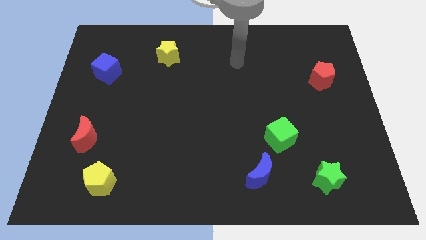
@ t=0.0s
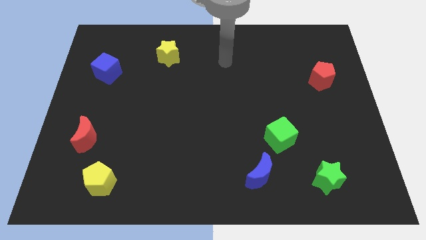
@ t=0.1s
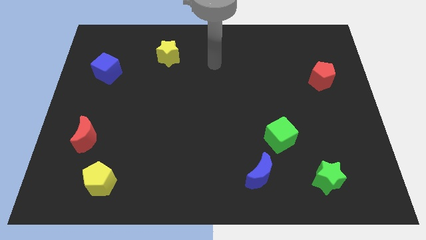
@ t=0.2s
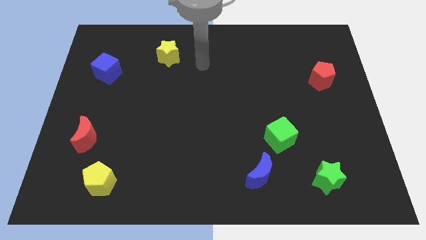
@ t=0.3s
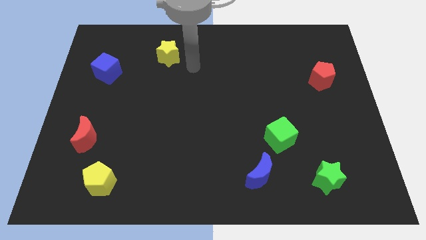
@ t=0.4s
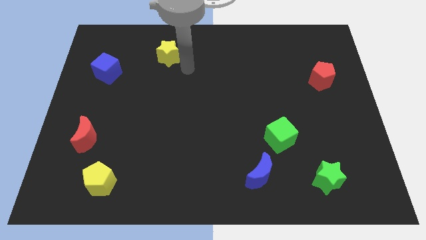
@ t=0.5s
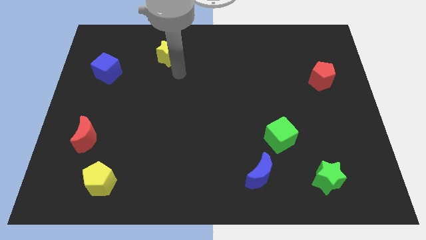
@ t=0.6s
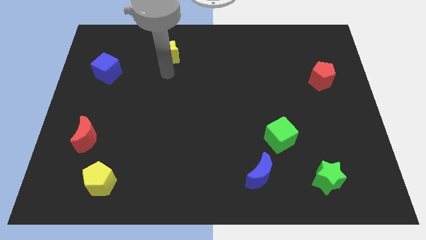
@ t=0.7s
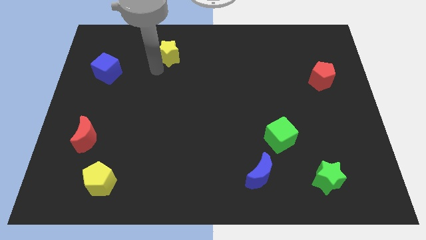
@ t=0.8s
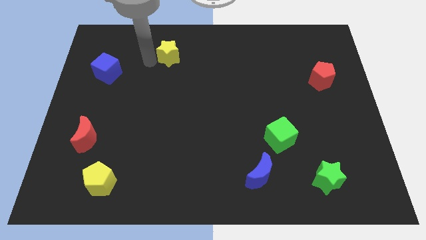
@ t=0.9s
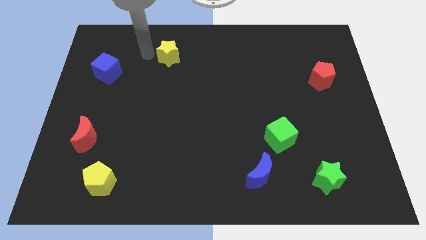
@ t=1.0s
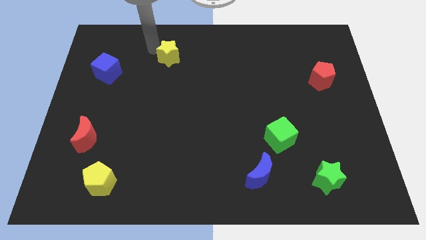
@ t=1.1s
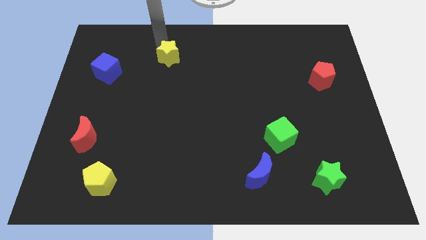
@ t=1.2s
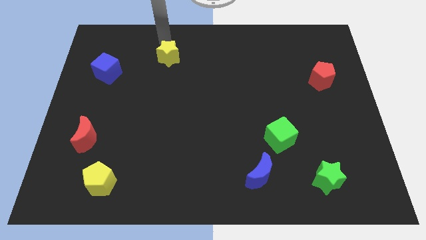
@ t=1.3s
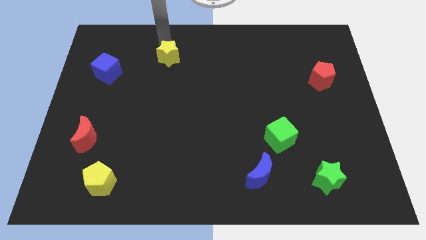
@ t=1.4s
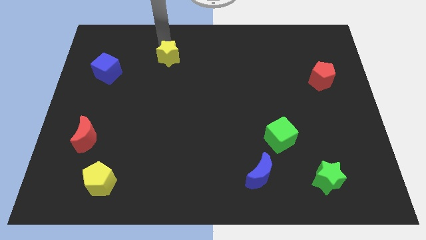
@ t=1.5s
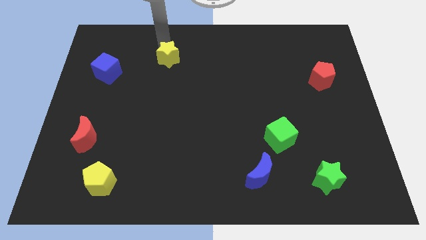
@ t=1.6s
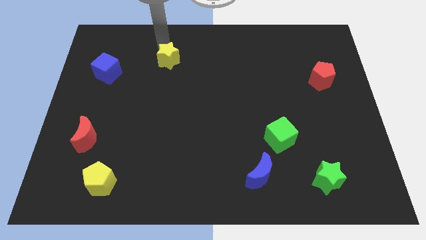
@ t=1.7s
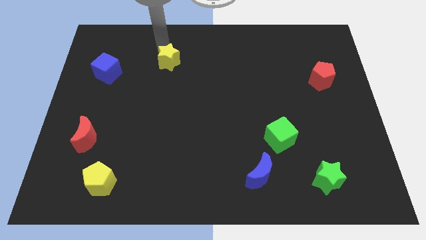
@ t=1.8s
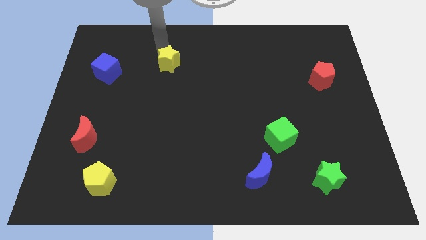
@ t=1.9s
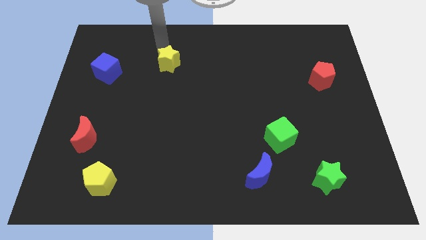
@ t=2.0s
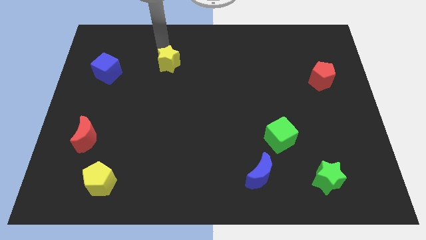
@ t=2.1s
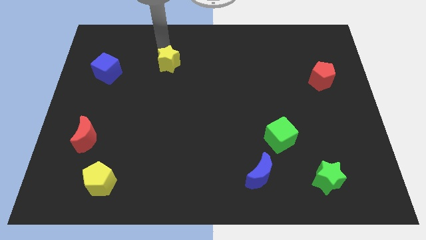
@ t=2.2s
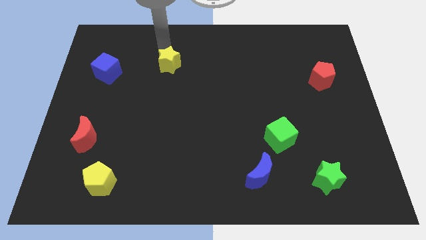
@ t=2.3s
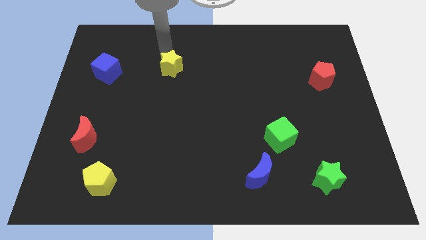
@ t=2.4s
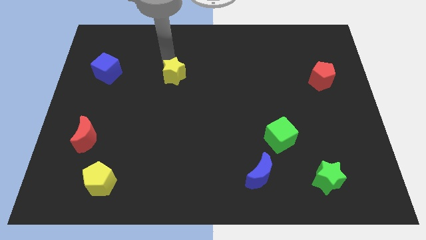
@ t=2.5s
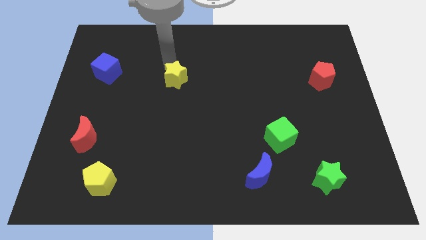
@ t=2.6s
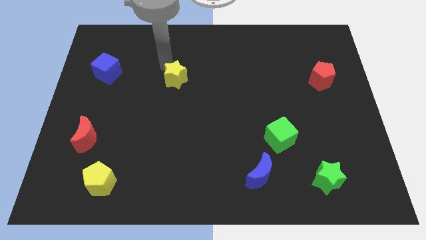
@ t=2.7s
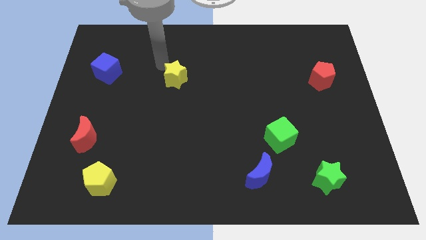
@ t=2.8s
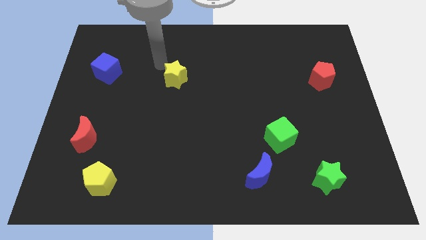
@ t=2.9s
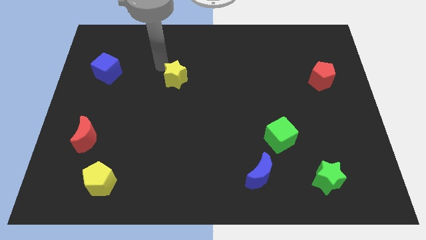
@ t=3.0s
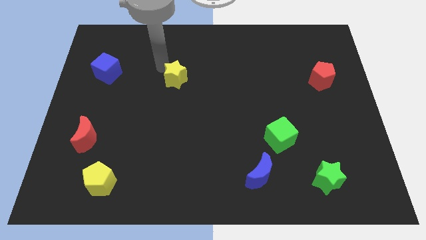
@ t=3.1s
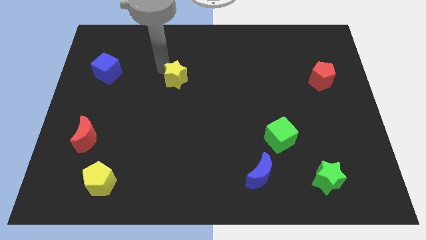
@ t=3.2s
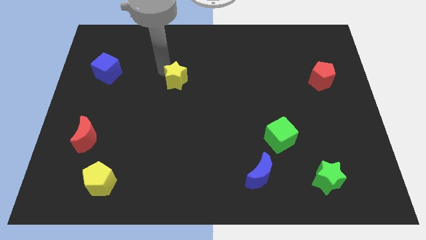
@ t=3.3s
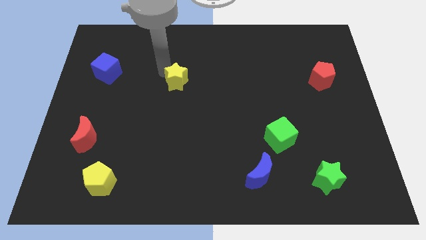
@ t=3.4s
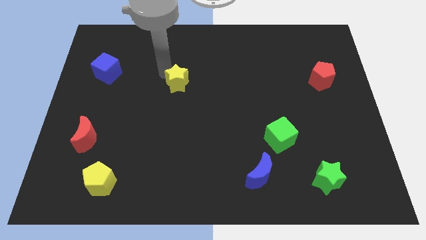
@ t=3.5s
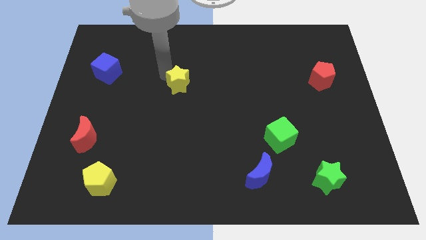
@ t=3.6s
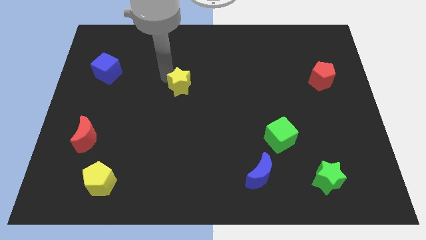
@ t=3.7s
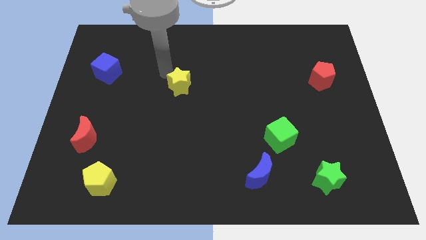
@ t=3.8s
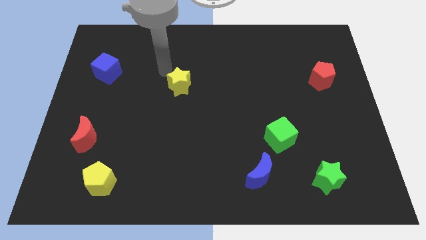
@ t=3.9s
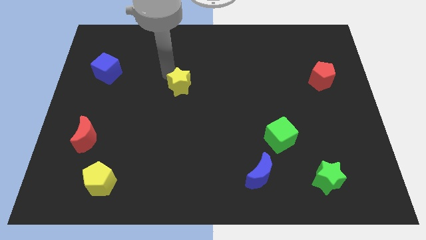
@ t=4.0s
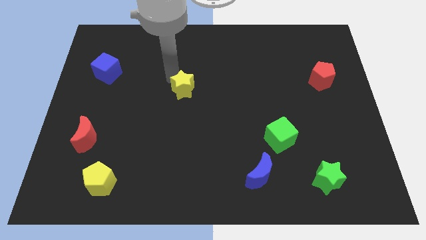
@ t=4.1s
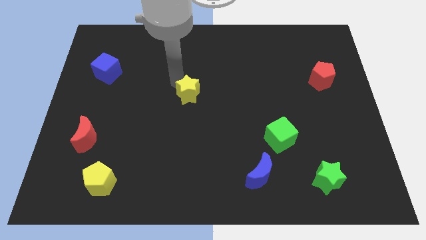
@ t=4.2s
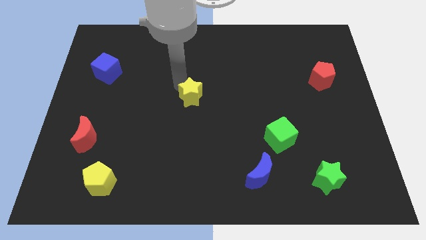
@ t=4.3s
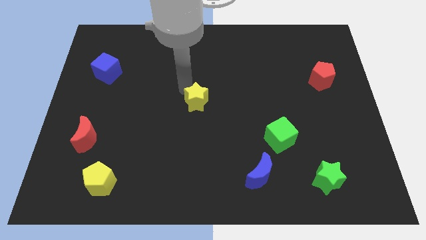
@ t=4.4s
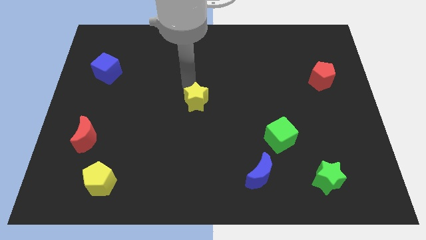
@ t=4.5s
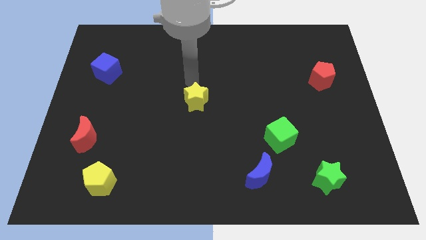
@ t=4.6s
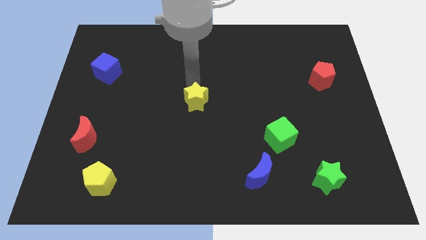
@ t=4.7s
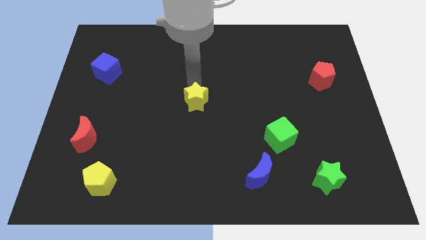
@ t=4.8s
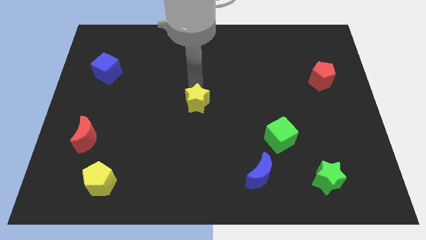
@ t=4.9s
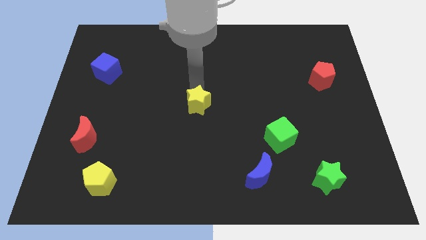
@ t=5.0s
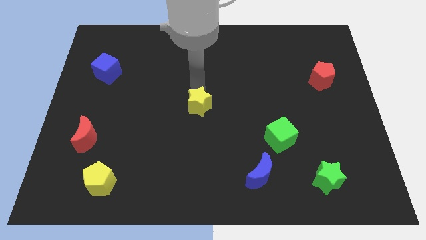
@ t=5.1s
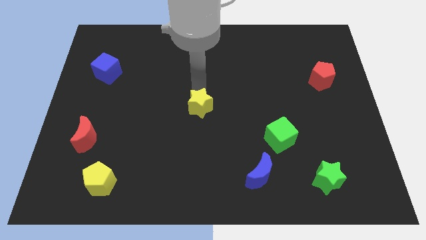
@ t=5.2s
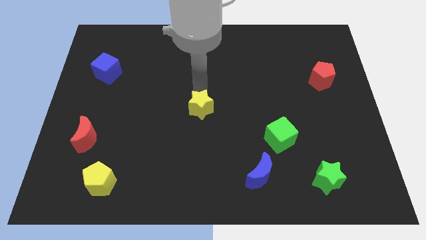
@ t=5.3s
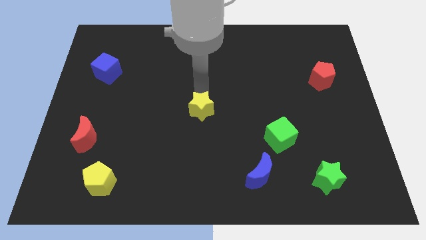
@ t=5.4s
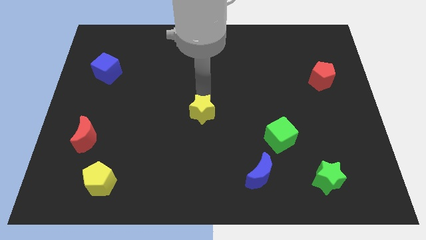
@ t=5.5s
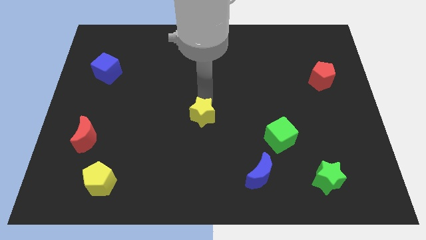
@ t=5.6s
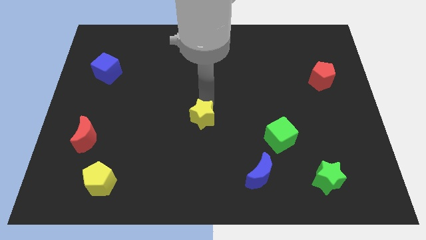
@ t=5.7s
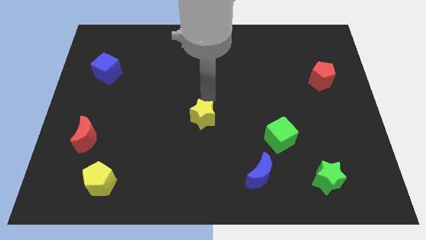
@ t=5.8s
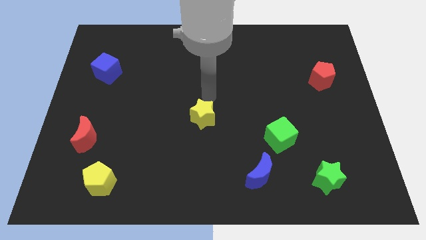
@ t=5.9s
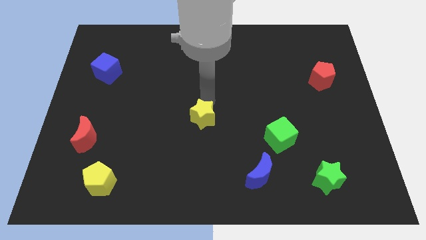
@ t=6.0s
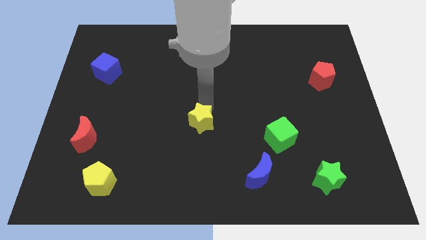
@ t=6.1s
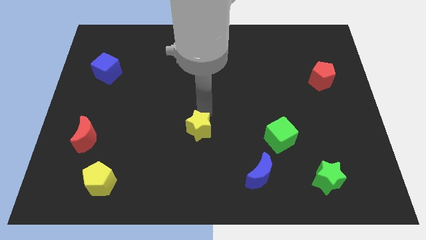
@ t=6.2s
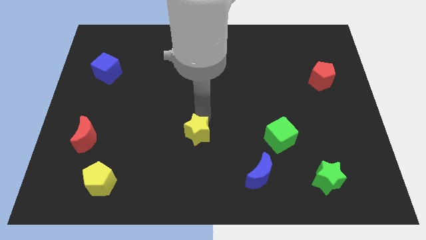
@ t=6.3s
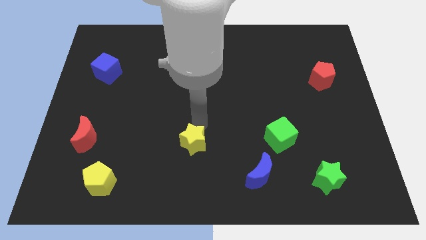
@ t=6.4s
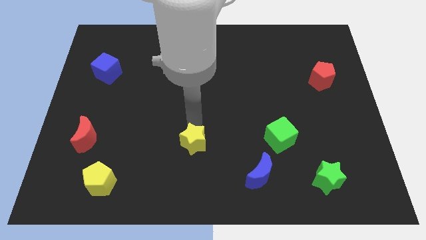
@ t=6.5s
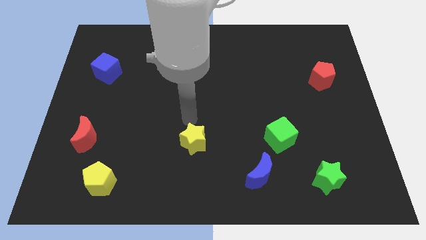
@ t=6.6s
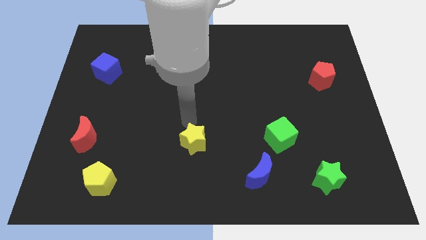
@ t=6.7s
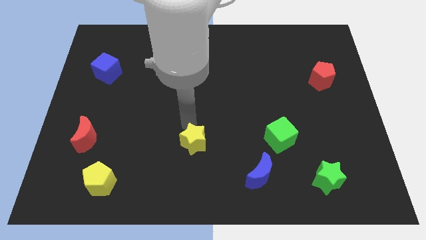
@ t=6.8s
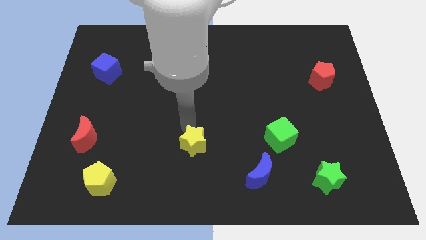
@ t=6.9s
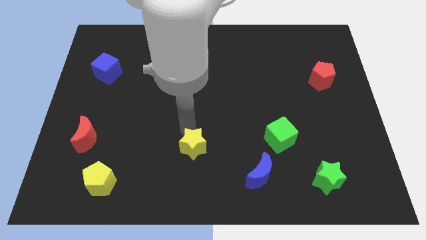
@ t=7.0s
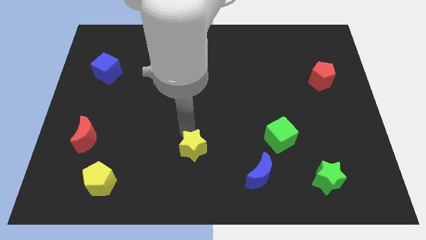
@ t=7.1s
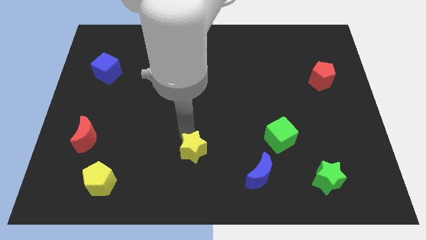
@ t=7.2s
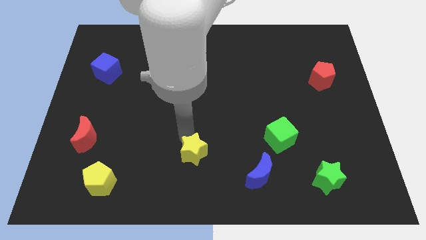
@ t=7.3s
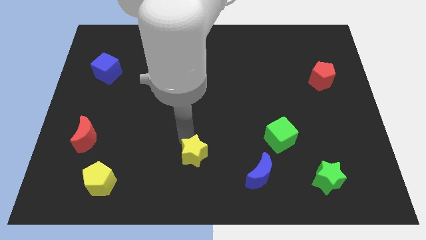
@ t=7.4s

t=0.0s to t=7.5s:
move the yellow star to the bottom side
